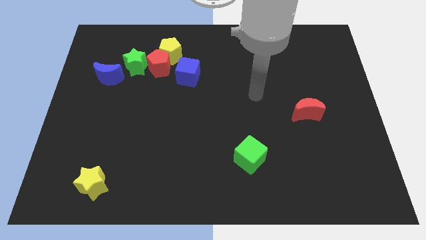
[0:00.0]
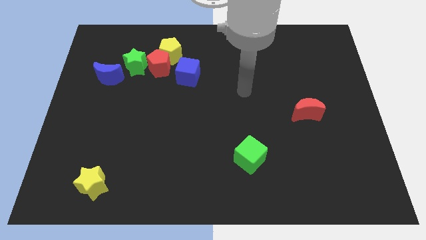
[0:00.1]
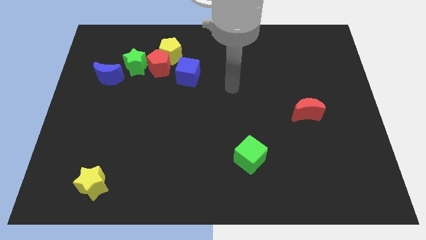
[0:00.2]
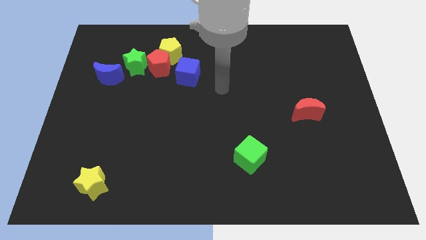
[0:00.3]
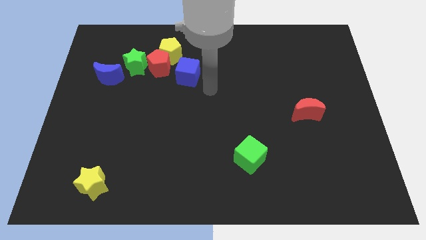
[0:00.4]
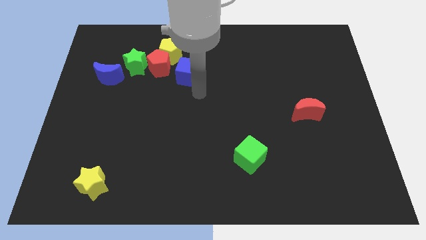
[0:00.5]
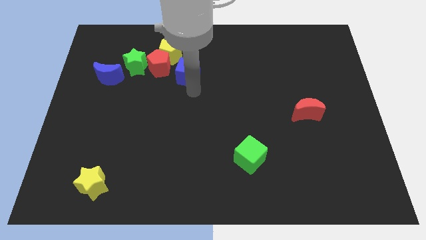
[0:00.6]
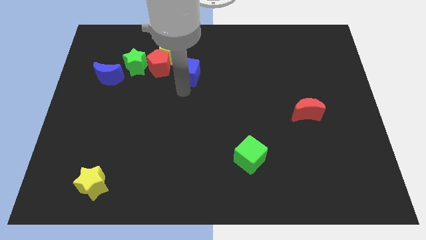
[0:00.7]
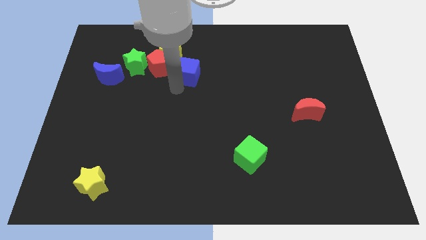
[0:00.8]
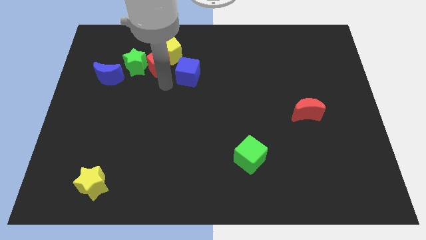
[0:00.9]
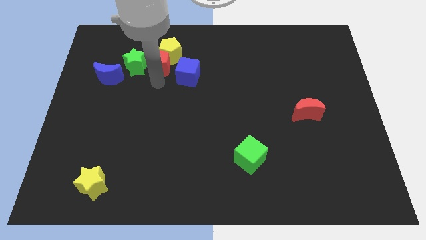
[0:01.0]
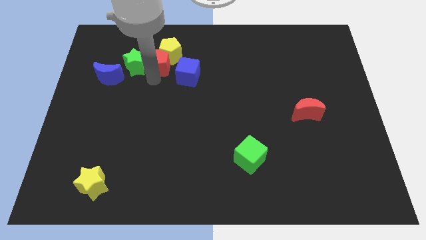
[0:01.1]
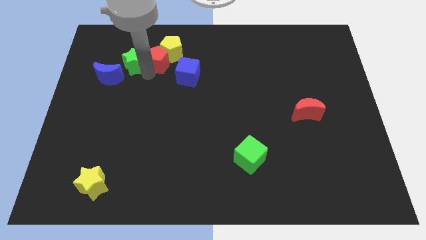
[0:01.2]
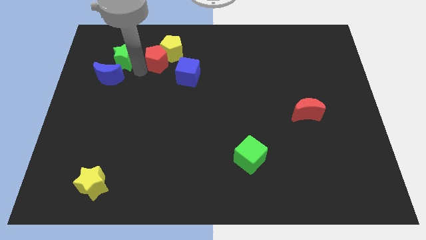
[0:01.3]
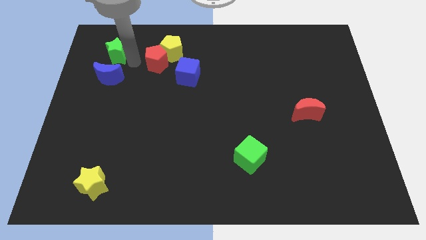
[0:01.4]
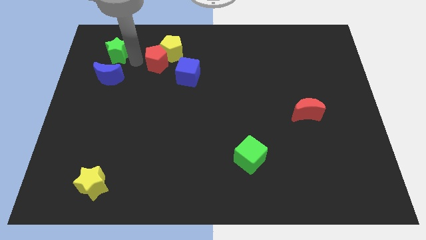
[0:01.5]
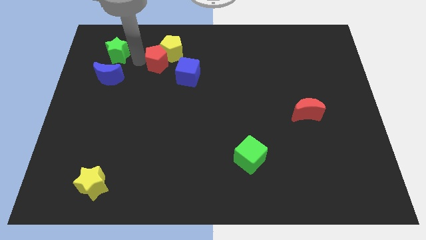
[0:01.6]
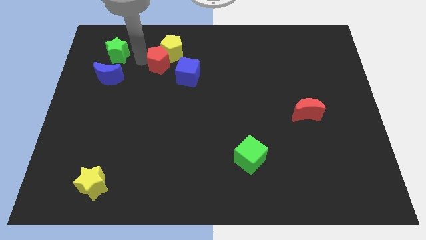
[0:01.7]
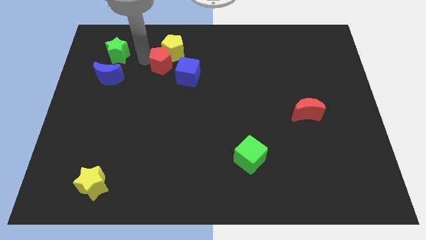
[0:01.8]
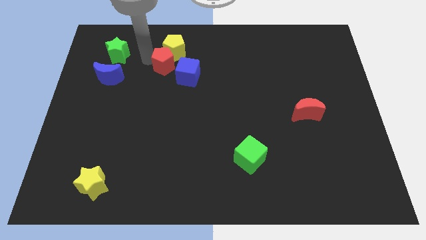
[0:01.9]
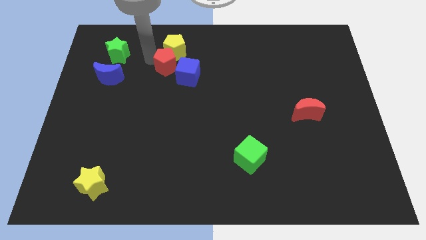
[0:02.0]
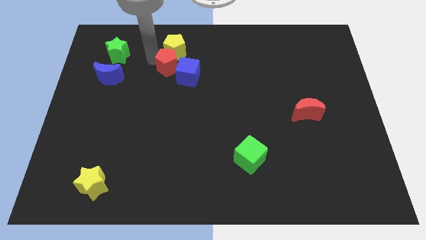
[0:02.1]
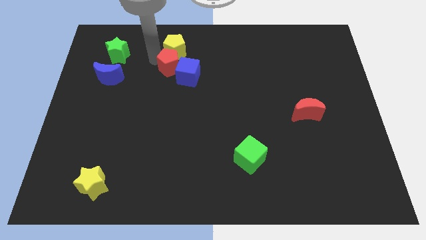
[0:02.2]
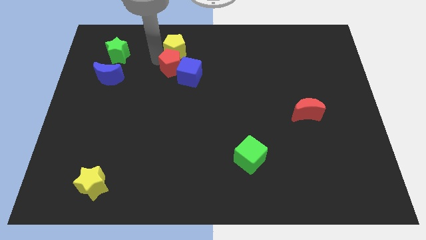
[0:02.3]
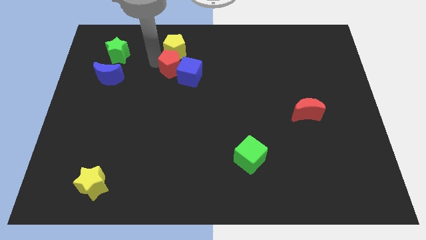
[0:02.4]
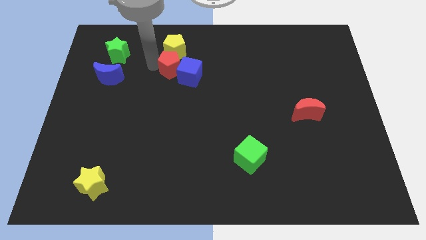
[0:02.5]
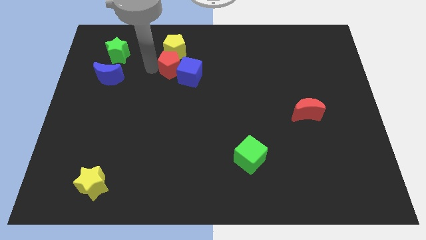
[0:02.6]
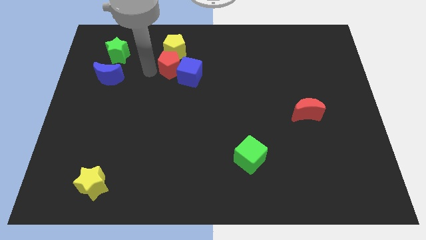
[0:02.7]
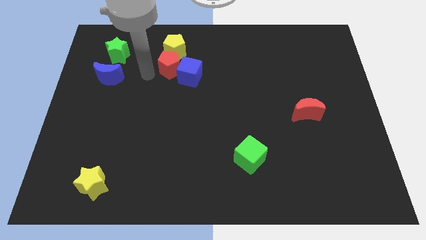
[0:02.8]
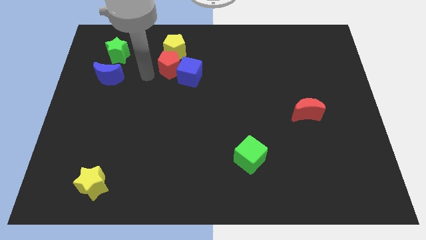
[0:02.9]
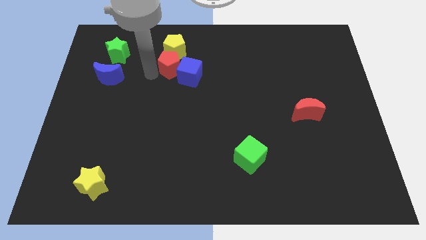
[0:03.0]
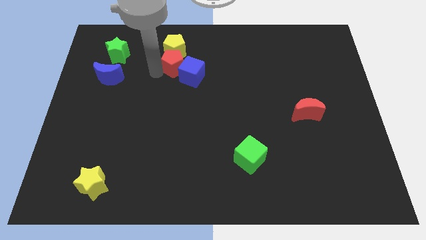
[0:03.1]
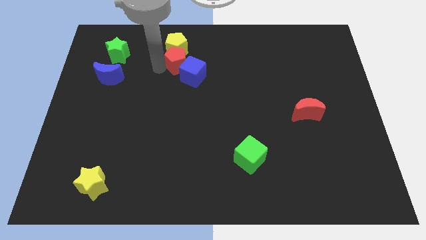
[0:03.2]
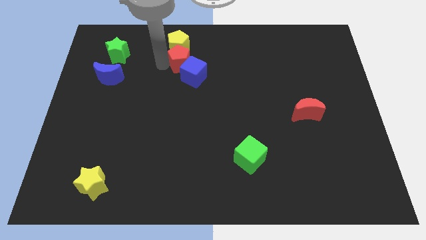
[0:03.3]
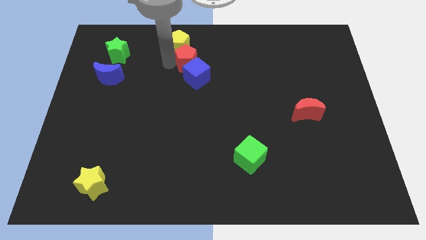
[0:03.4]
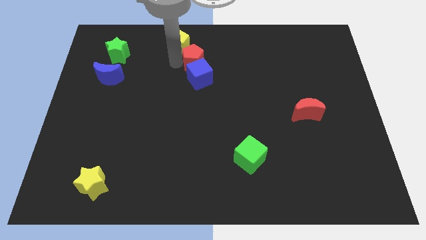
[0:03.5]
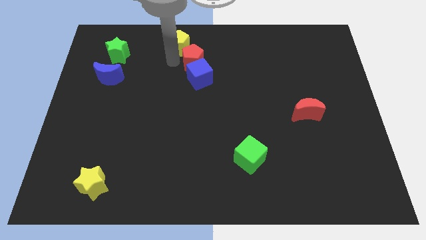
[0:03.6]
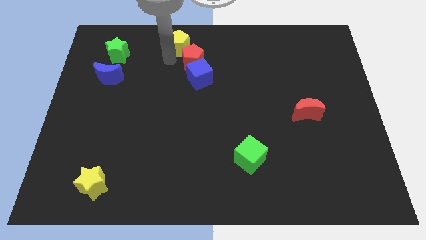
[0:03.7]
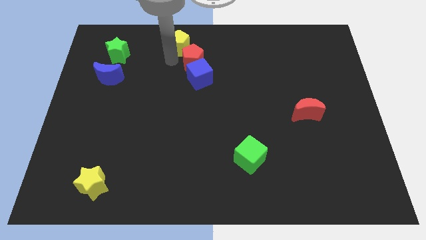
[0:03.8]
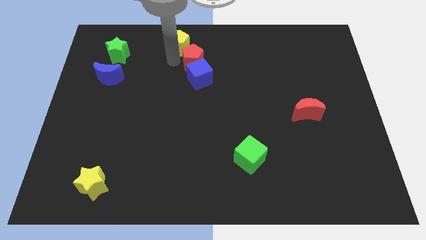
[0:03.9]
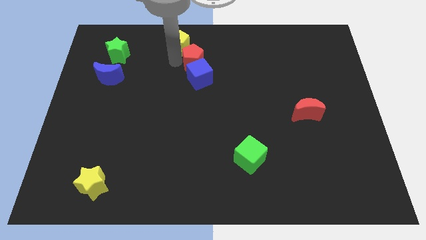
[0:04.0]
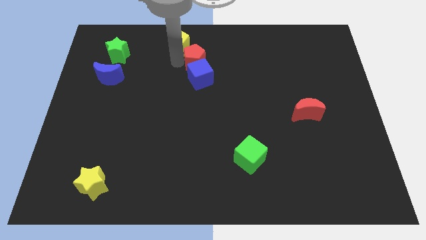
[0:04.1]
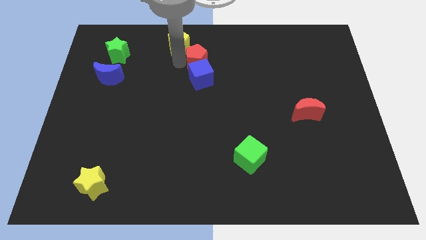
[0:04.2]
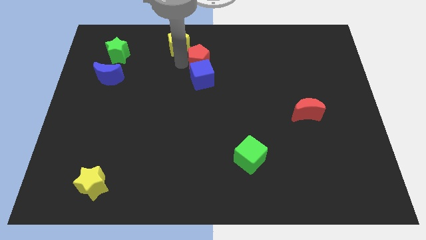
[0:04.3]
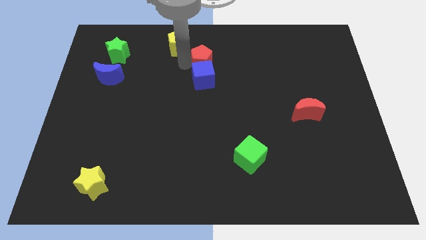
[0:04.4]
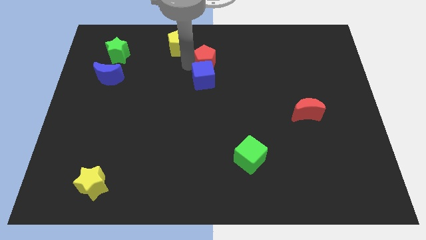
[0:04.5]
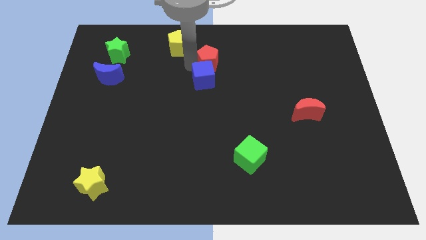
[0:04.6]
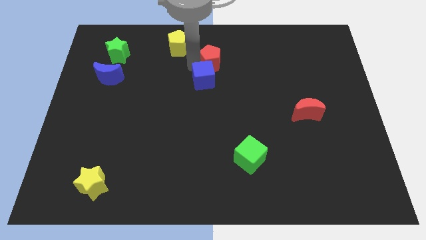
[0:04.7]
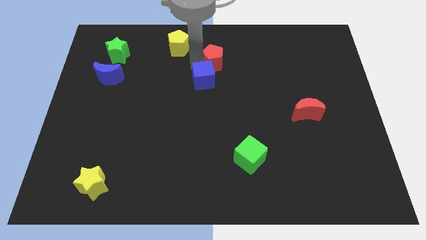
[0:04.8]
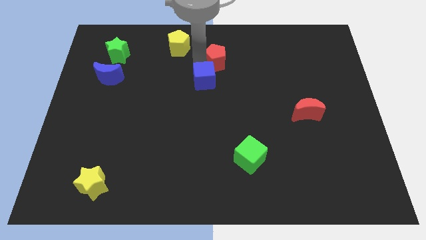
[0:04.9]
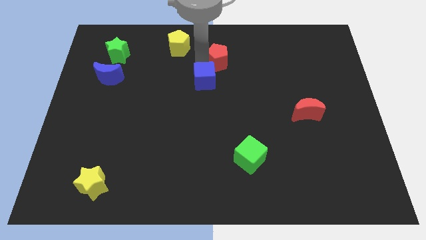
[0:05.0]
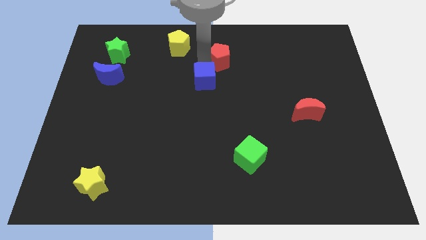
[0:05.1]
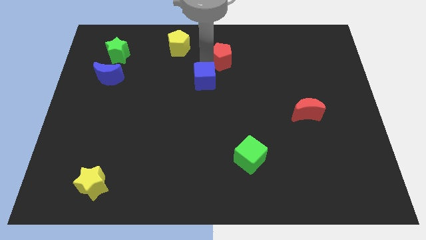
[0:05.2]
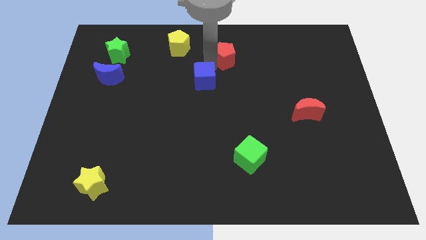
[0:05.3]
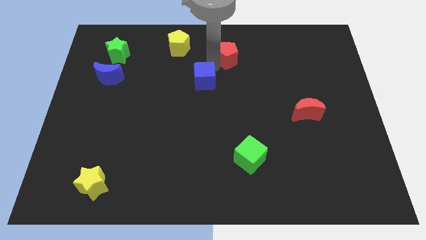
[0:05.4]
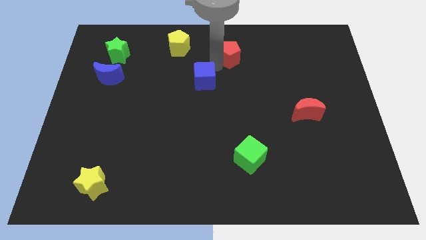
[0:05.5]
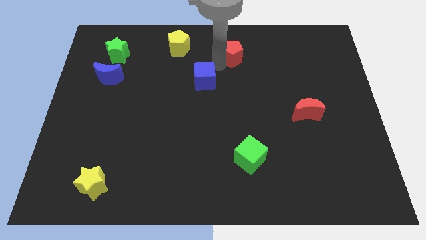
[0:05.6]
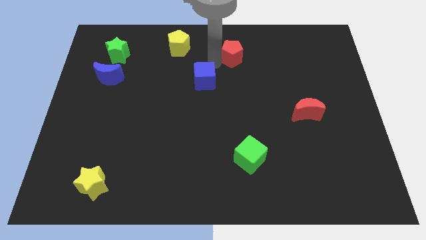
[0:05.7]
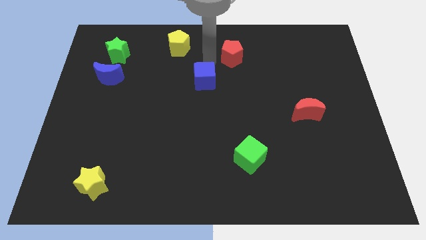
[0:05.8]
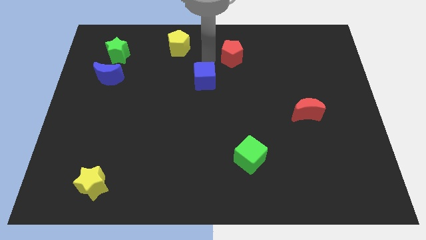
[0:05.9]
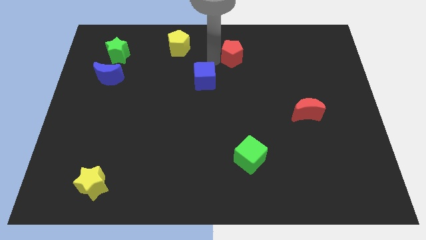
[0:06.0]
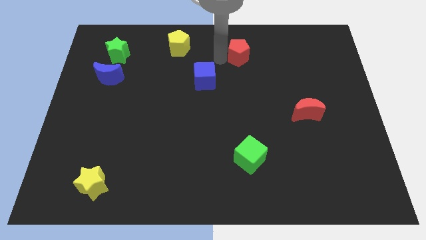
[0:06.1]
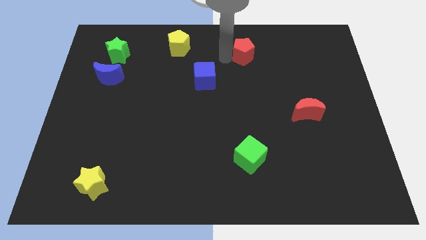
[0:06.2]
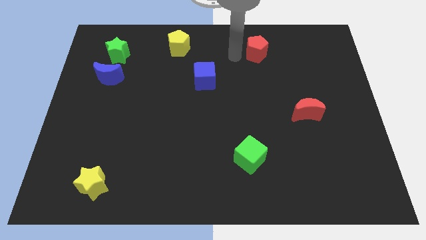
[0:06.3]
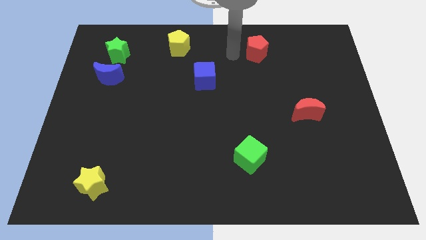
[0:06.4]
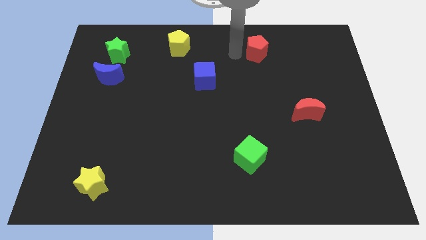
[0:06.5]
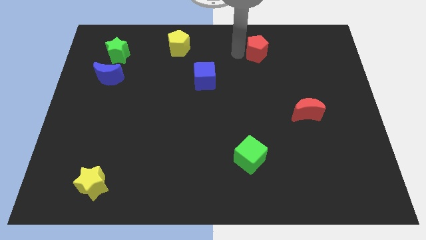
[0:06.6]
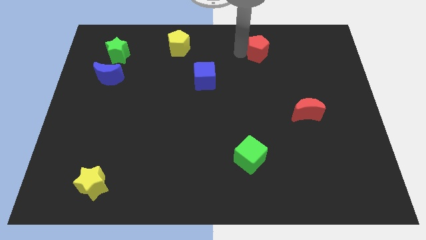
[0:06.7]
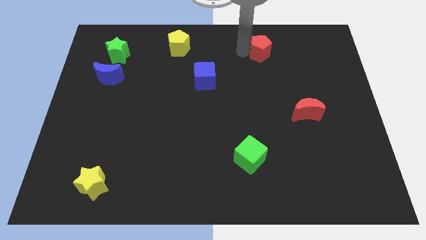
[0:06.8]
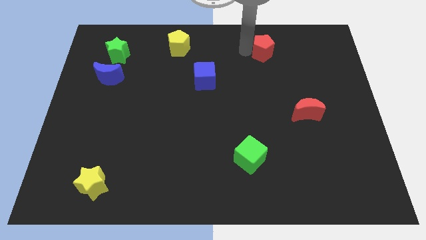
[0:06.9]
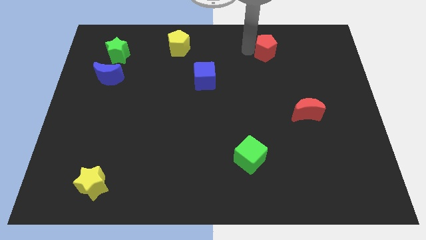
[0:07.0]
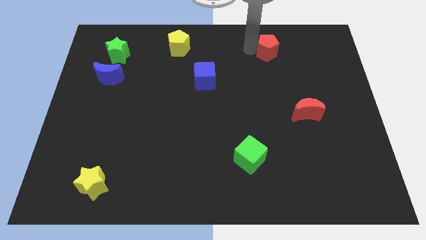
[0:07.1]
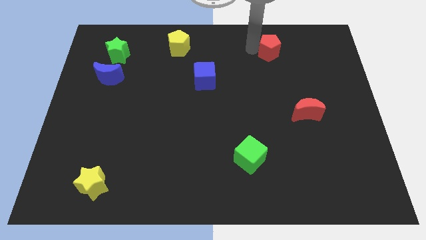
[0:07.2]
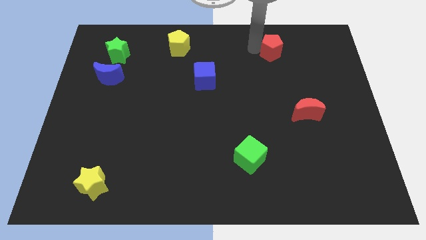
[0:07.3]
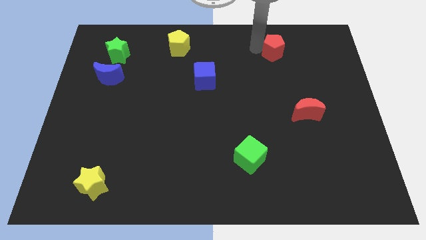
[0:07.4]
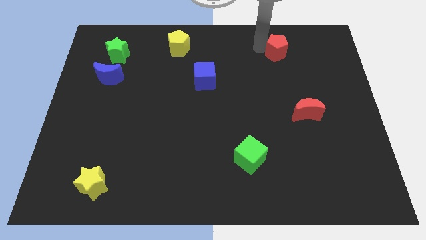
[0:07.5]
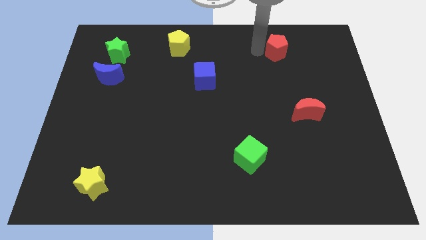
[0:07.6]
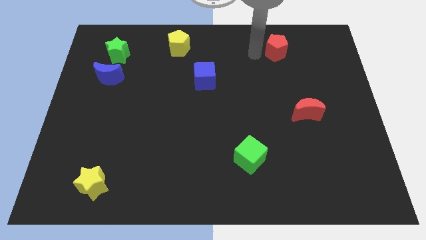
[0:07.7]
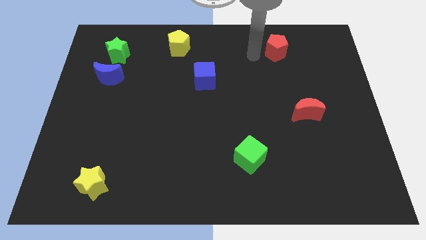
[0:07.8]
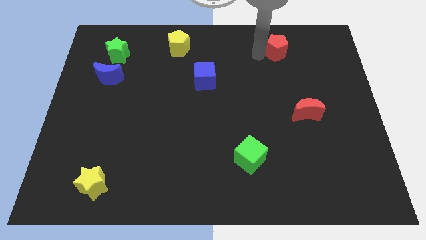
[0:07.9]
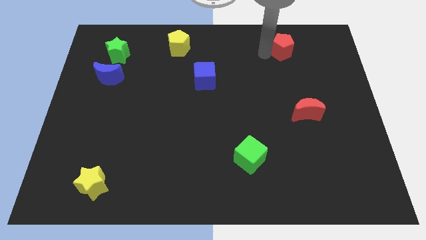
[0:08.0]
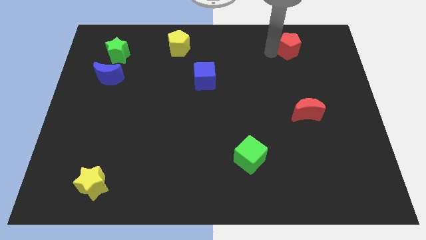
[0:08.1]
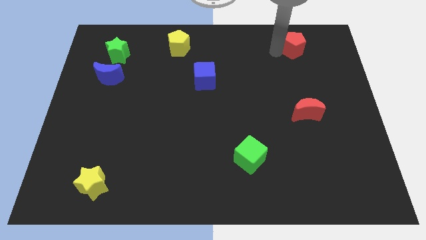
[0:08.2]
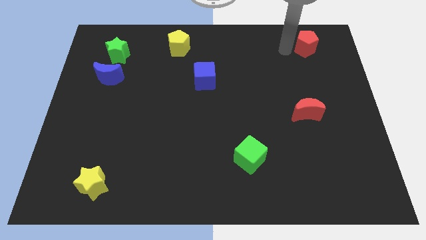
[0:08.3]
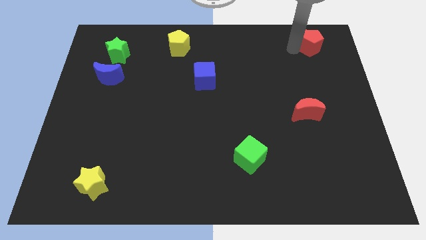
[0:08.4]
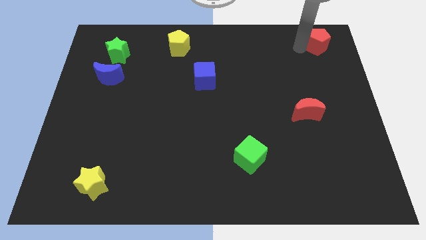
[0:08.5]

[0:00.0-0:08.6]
push the red pentagon to the top right of the board
